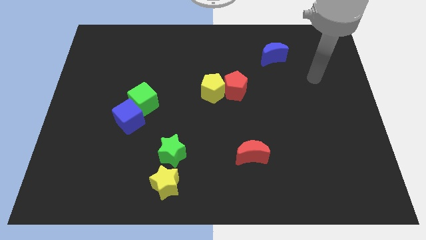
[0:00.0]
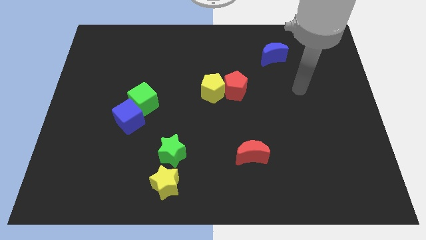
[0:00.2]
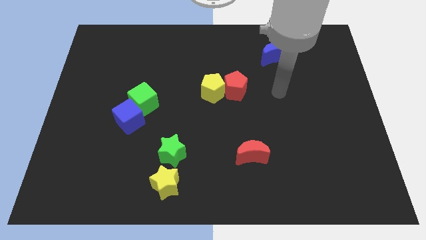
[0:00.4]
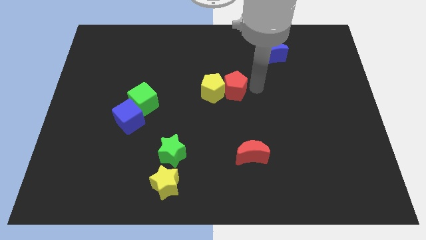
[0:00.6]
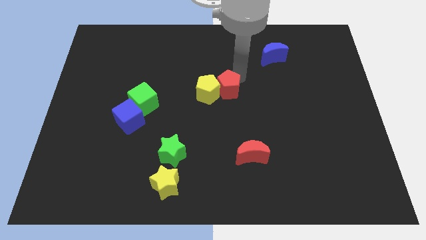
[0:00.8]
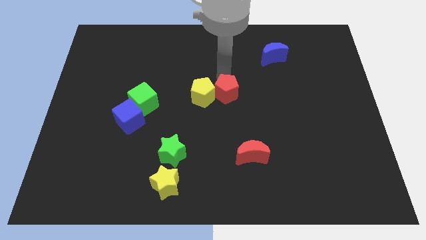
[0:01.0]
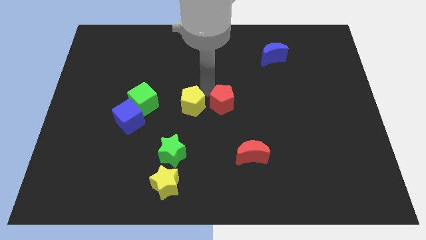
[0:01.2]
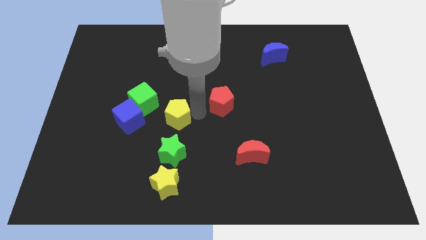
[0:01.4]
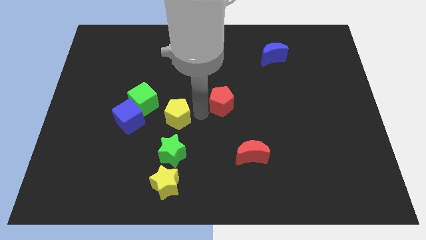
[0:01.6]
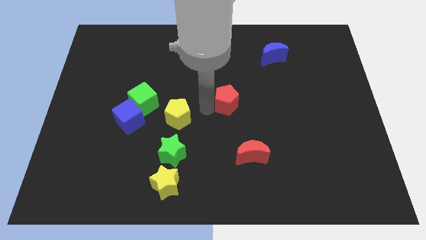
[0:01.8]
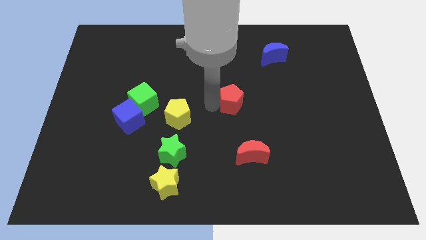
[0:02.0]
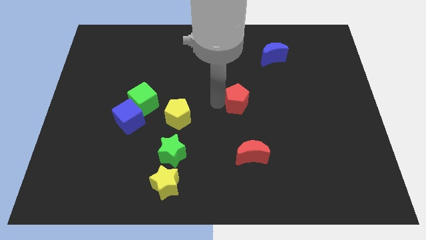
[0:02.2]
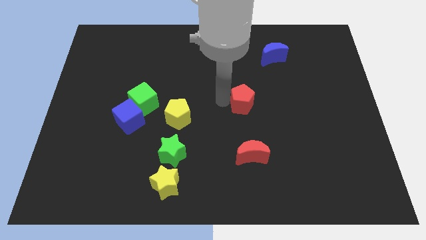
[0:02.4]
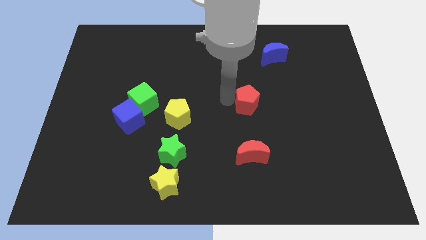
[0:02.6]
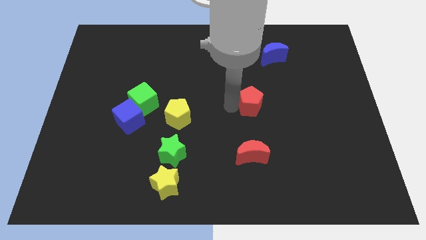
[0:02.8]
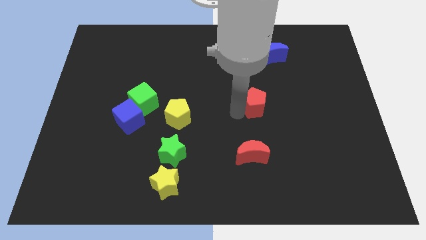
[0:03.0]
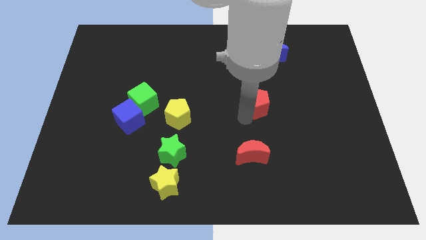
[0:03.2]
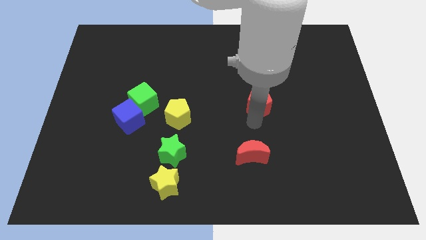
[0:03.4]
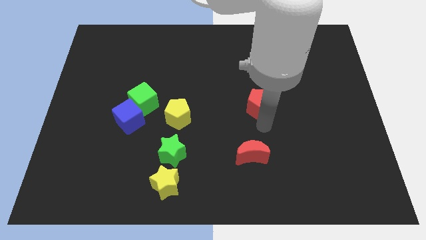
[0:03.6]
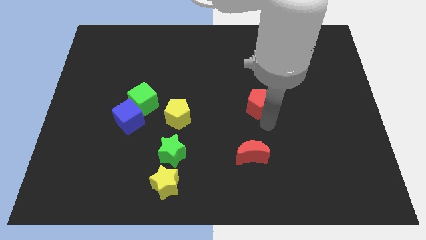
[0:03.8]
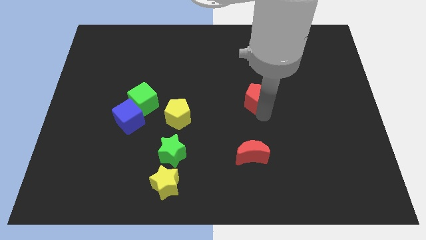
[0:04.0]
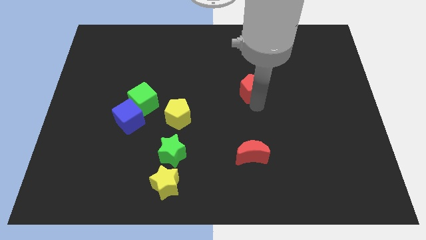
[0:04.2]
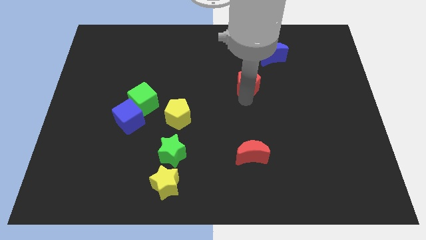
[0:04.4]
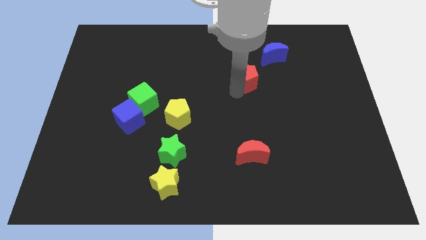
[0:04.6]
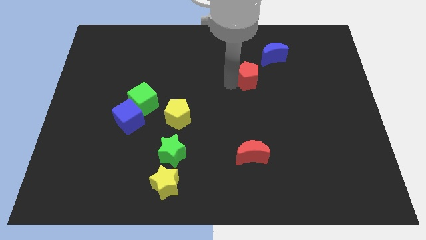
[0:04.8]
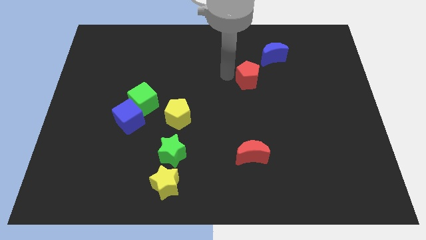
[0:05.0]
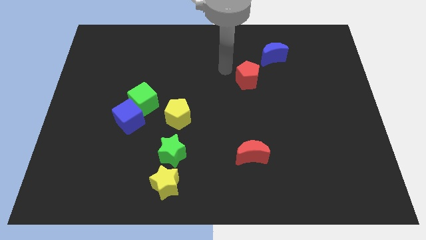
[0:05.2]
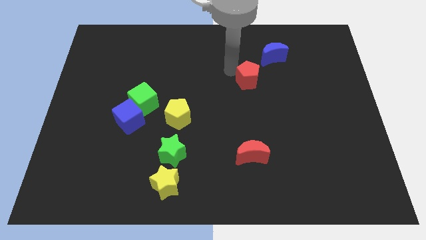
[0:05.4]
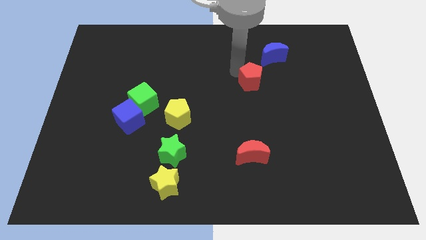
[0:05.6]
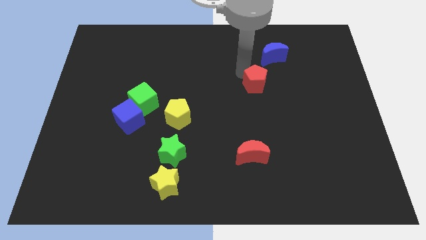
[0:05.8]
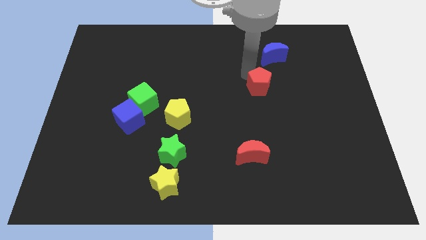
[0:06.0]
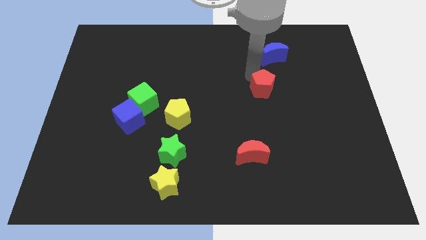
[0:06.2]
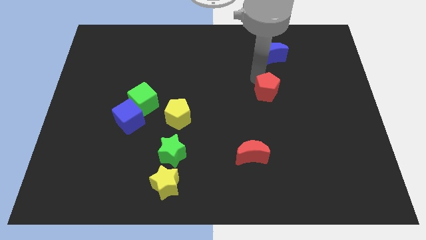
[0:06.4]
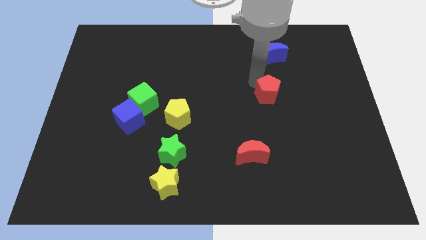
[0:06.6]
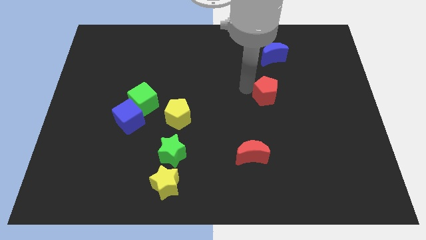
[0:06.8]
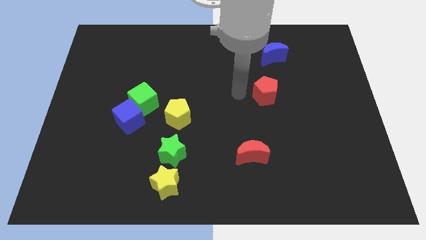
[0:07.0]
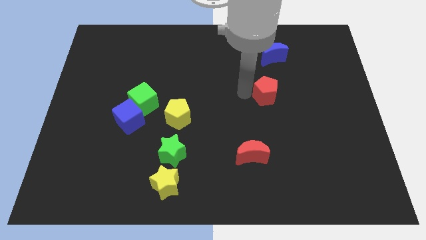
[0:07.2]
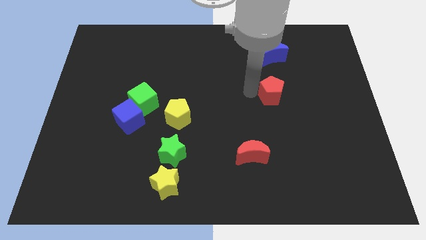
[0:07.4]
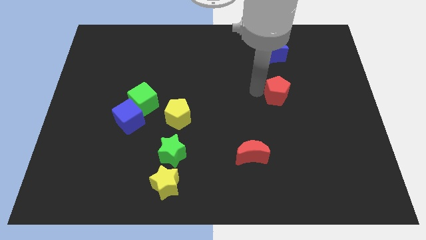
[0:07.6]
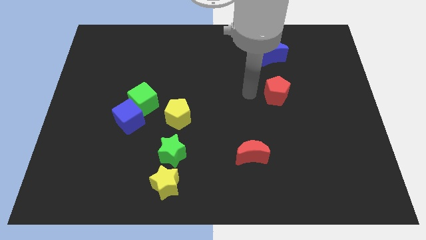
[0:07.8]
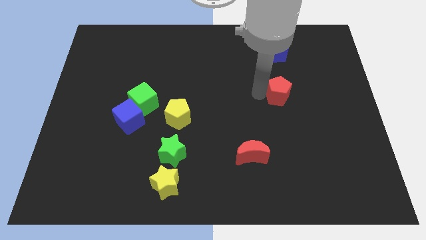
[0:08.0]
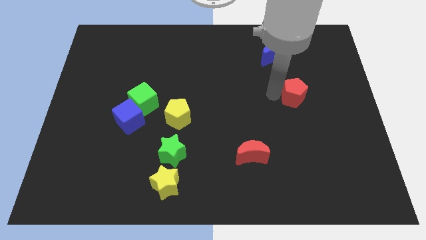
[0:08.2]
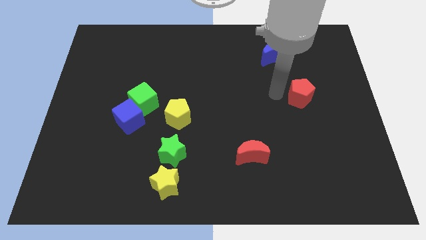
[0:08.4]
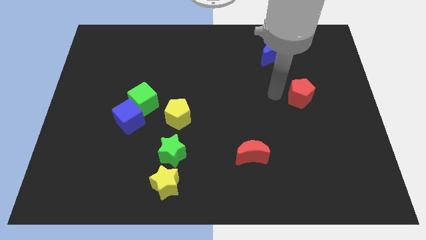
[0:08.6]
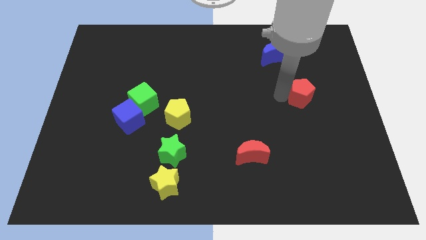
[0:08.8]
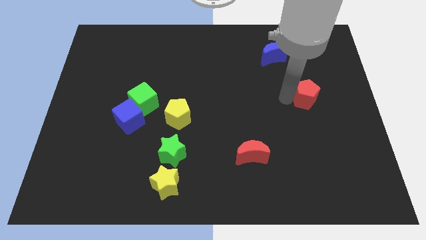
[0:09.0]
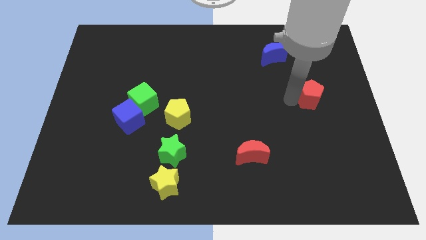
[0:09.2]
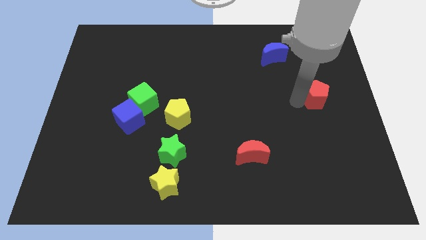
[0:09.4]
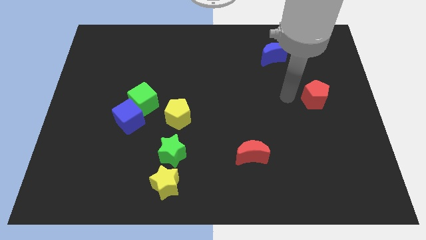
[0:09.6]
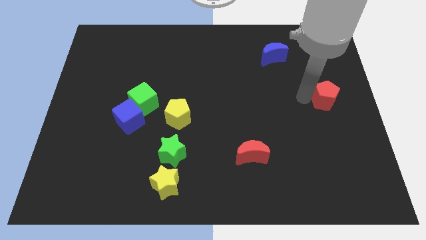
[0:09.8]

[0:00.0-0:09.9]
move the red pentagon to the center right

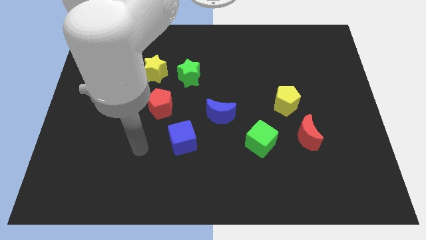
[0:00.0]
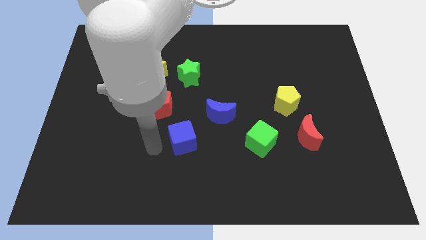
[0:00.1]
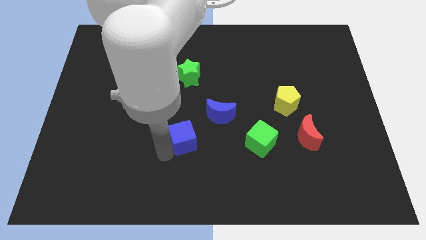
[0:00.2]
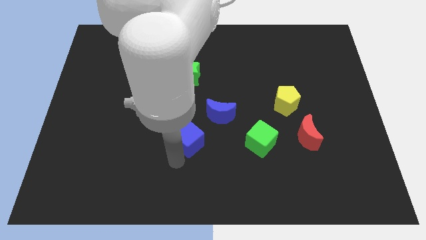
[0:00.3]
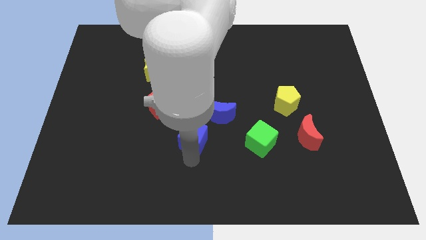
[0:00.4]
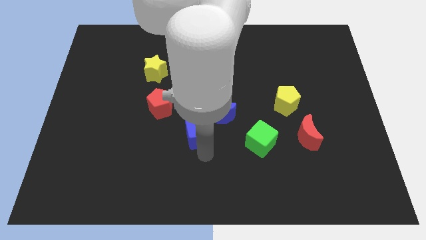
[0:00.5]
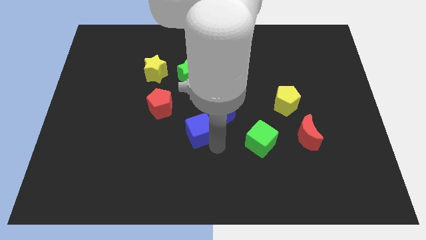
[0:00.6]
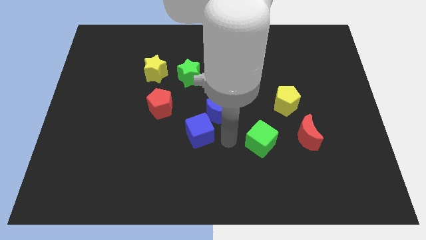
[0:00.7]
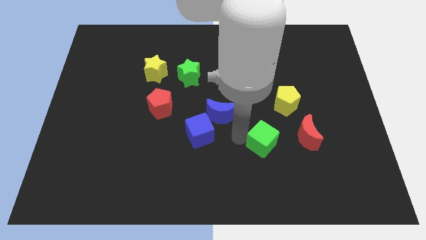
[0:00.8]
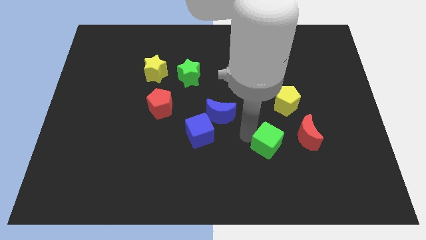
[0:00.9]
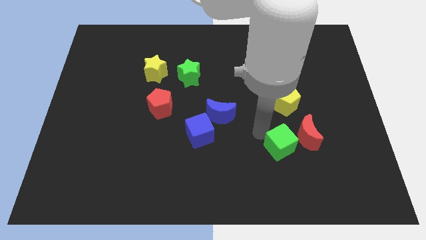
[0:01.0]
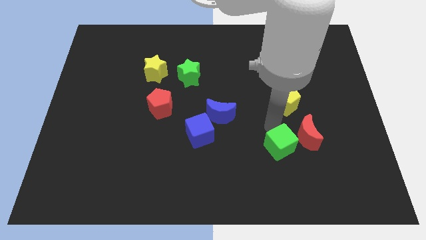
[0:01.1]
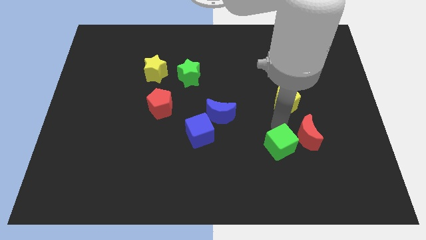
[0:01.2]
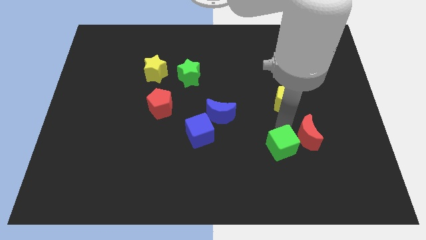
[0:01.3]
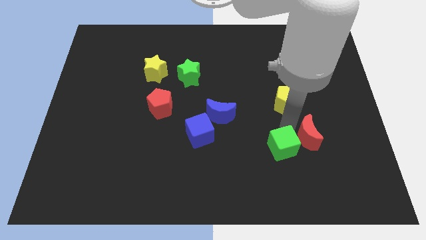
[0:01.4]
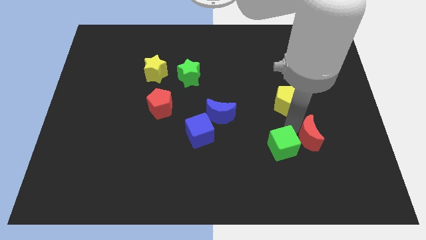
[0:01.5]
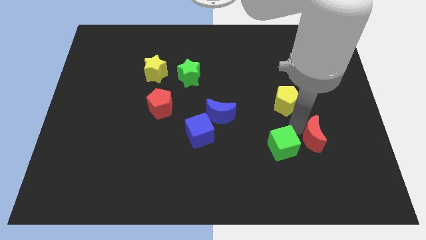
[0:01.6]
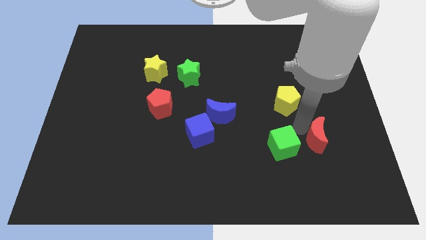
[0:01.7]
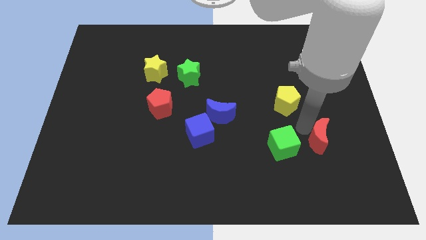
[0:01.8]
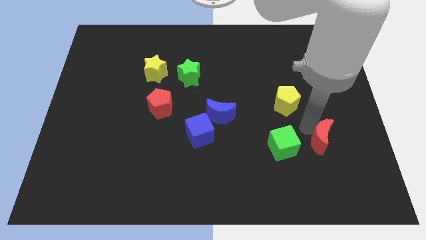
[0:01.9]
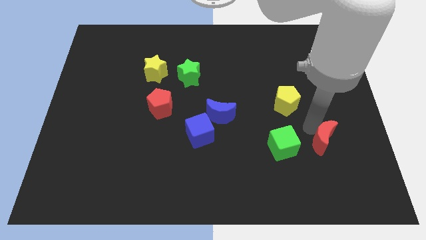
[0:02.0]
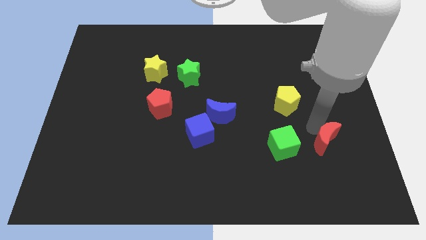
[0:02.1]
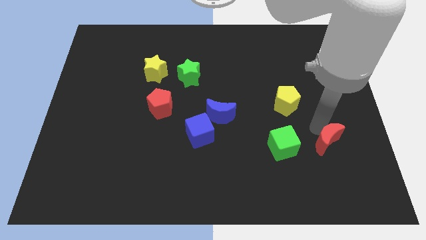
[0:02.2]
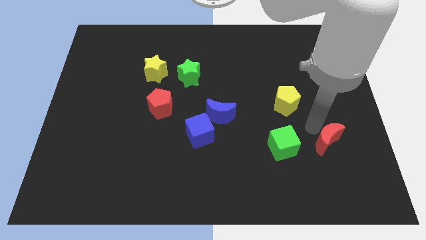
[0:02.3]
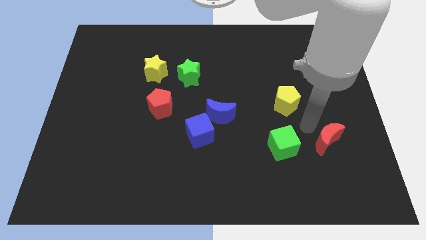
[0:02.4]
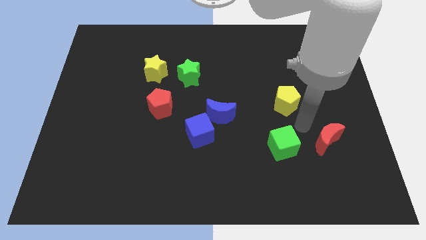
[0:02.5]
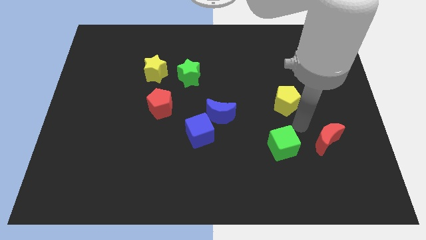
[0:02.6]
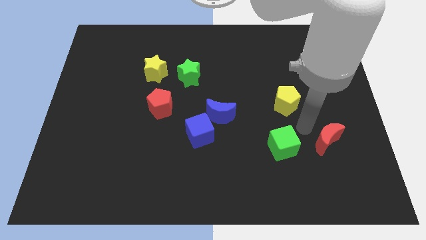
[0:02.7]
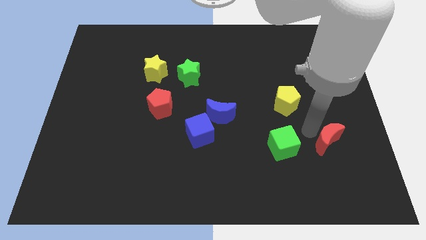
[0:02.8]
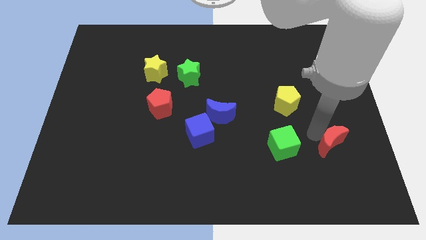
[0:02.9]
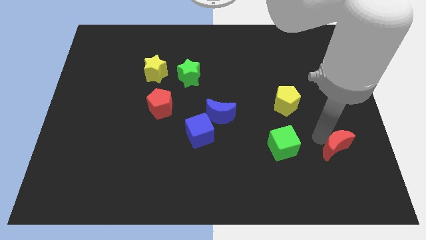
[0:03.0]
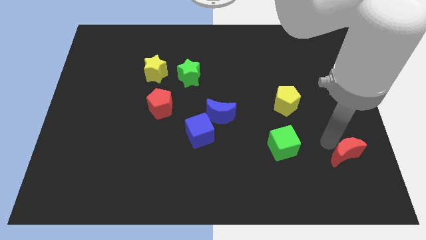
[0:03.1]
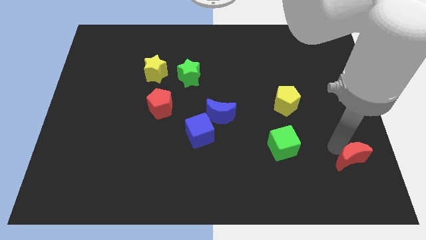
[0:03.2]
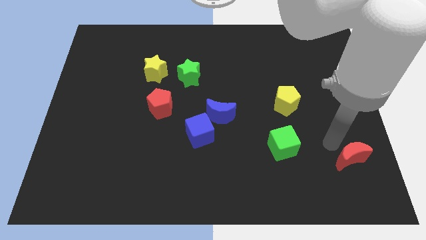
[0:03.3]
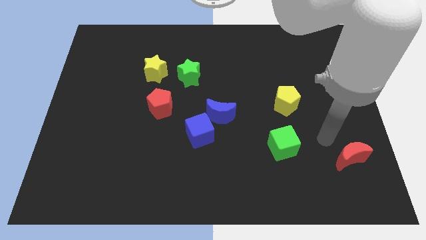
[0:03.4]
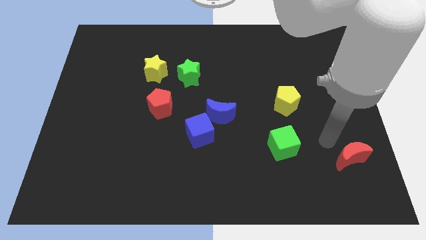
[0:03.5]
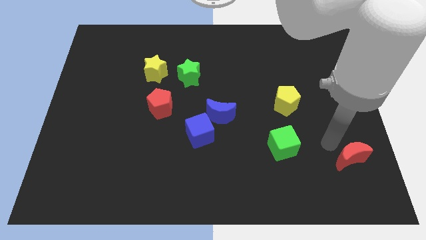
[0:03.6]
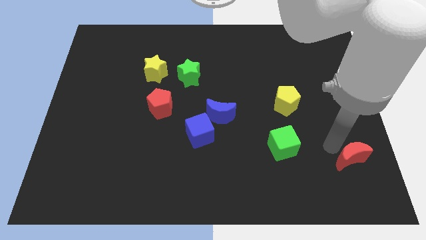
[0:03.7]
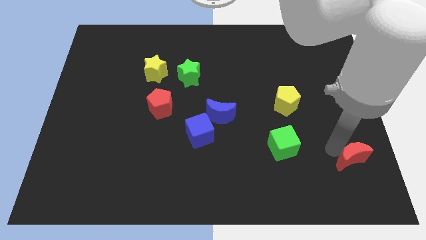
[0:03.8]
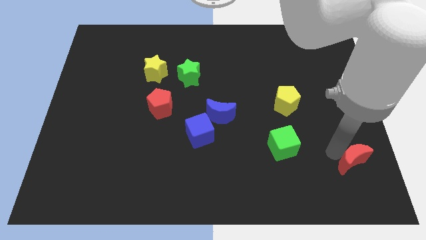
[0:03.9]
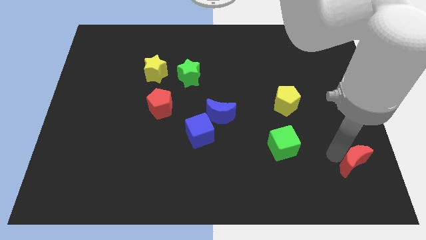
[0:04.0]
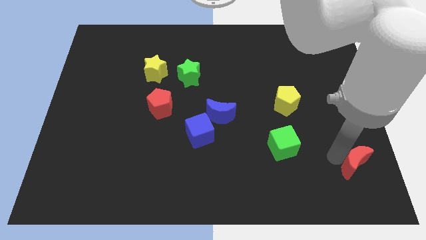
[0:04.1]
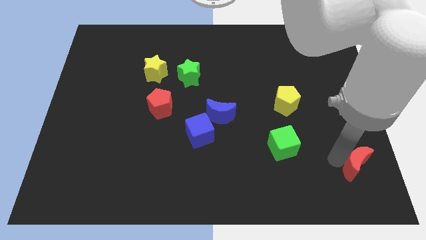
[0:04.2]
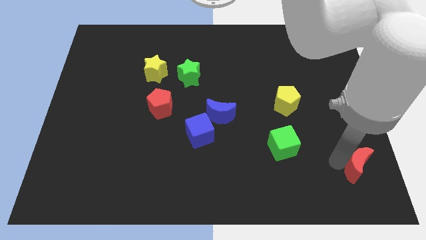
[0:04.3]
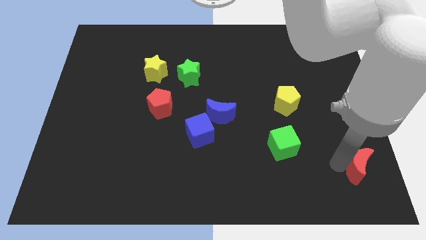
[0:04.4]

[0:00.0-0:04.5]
put the red moon to the lower right corner
